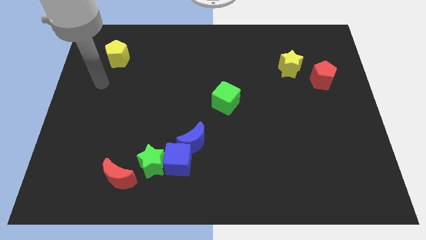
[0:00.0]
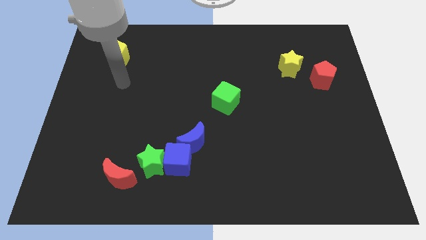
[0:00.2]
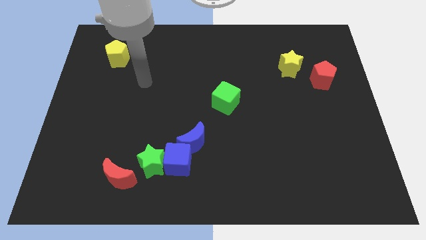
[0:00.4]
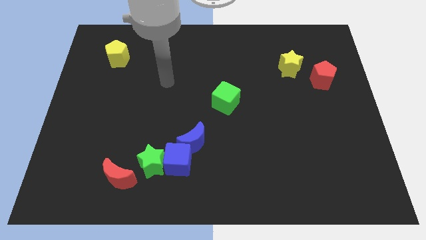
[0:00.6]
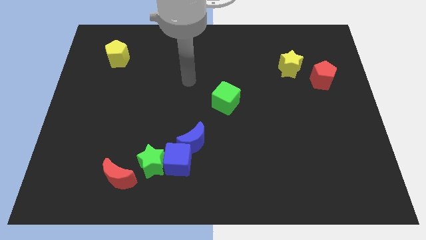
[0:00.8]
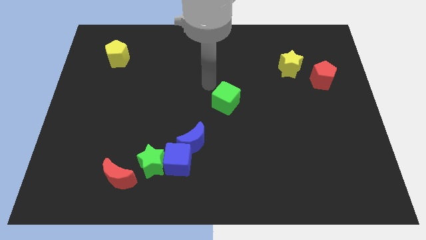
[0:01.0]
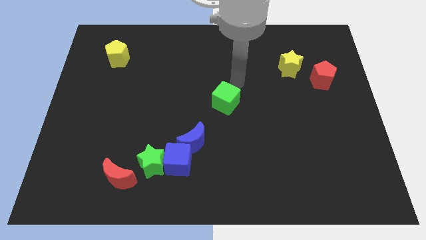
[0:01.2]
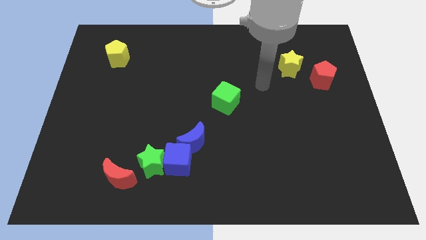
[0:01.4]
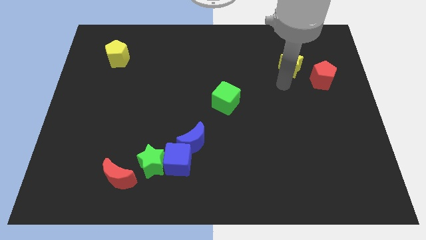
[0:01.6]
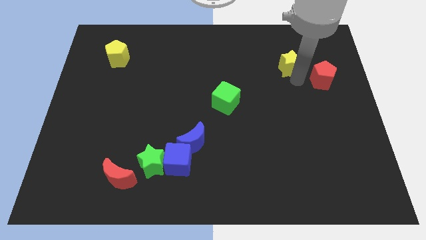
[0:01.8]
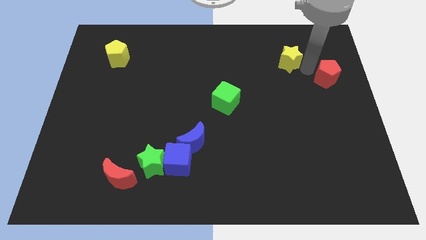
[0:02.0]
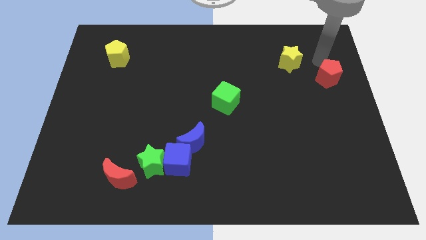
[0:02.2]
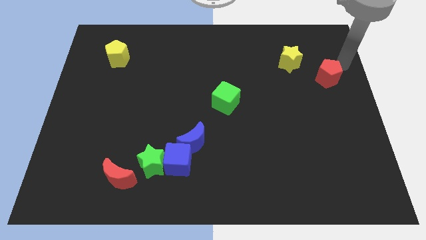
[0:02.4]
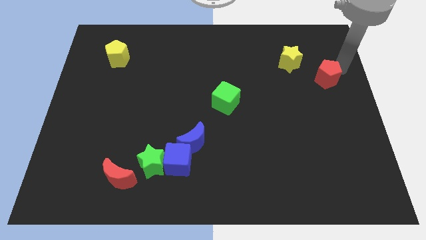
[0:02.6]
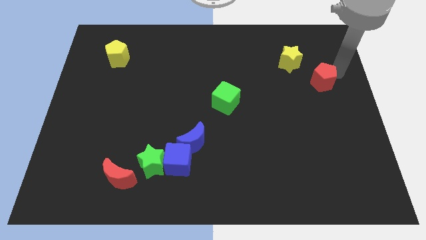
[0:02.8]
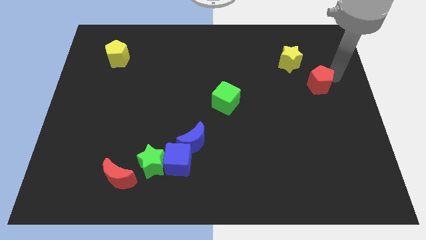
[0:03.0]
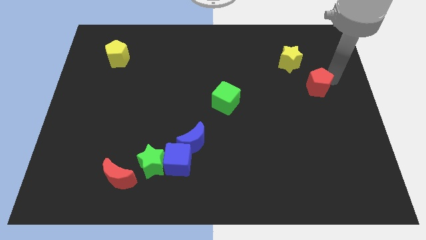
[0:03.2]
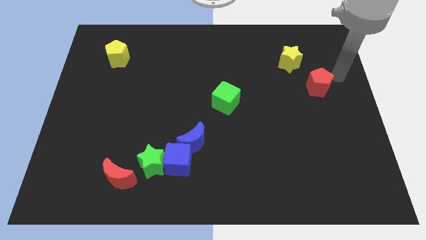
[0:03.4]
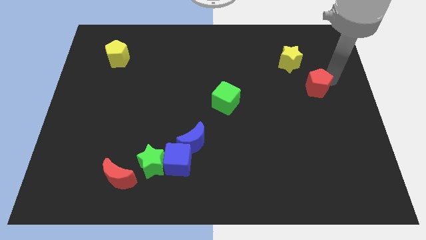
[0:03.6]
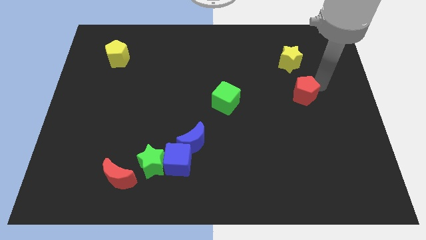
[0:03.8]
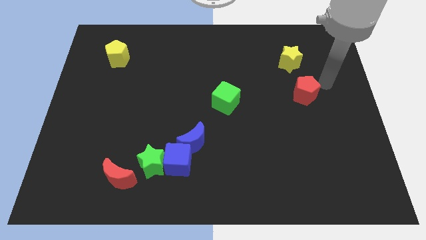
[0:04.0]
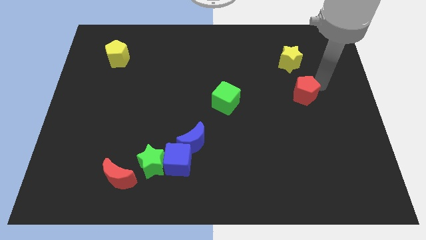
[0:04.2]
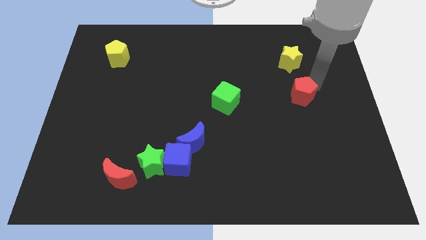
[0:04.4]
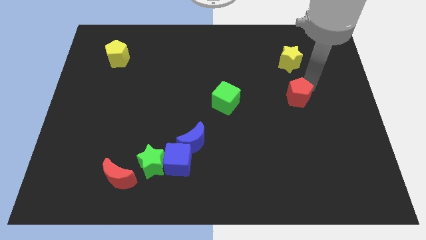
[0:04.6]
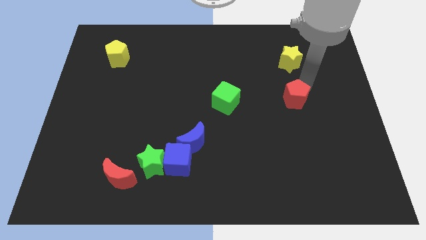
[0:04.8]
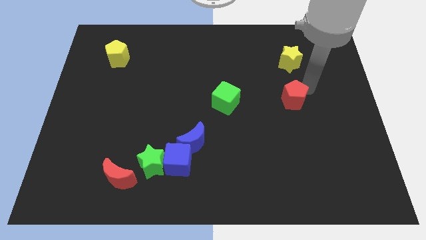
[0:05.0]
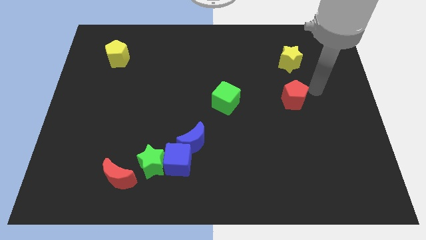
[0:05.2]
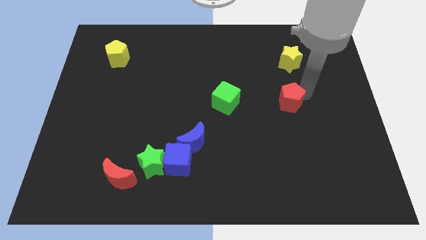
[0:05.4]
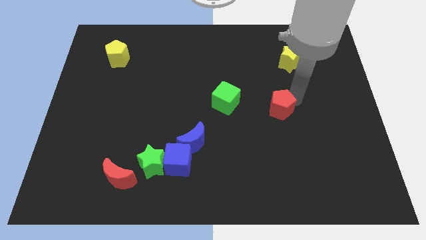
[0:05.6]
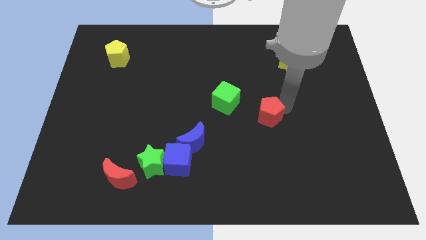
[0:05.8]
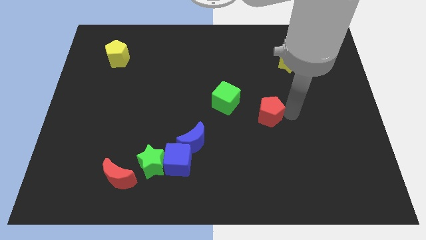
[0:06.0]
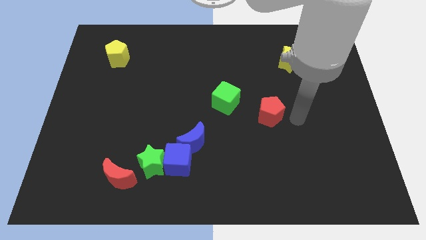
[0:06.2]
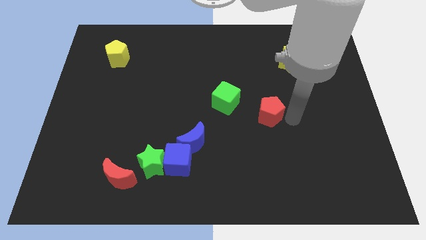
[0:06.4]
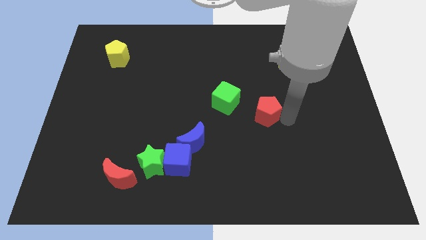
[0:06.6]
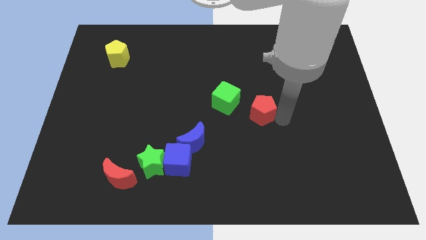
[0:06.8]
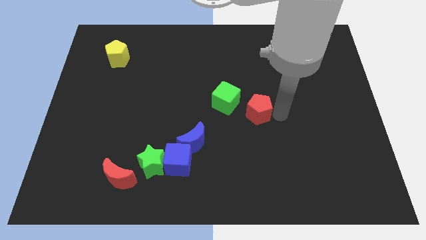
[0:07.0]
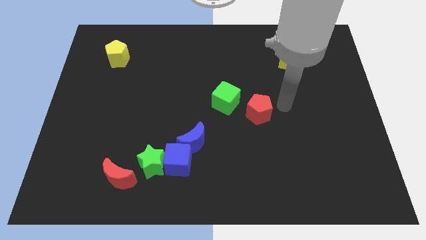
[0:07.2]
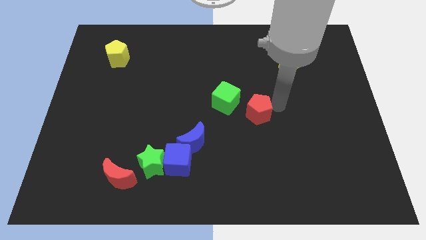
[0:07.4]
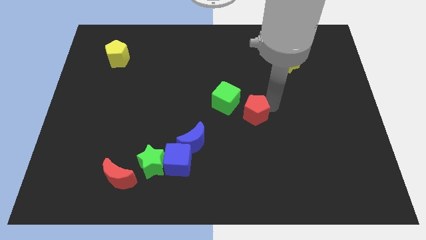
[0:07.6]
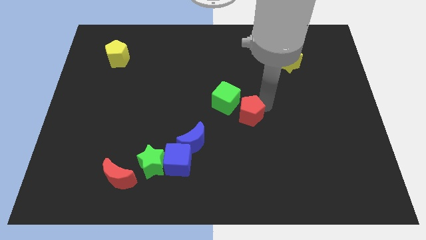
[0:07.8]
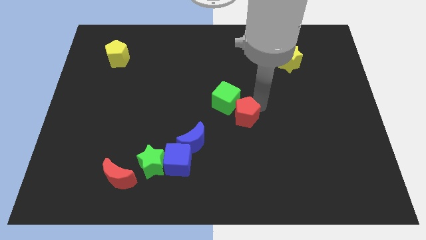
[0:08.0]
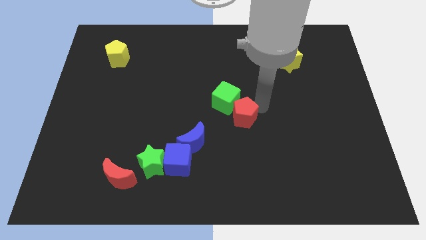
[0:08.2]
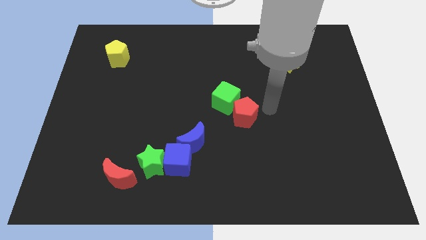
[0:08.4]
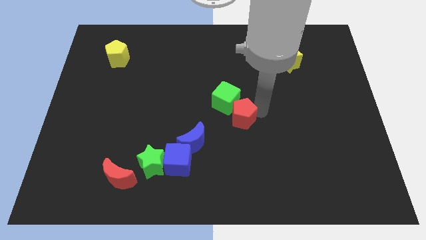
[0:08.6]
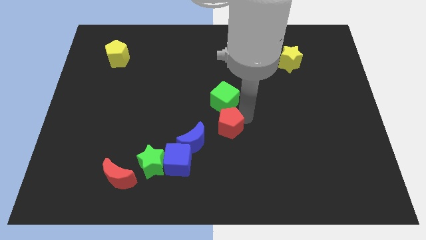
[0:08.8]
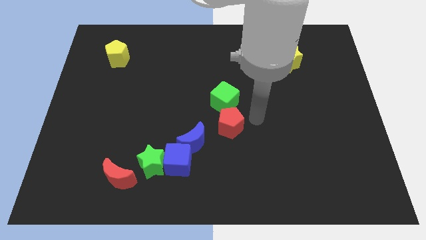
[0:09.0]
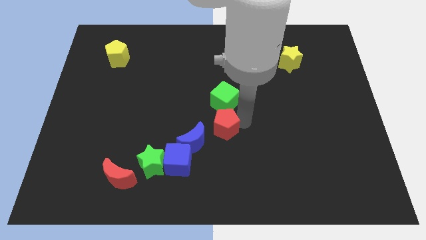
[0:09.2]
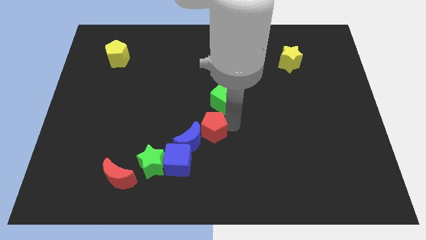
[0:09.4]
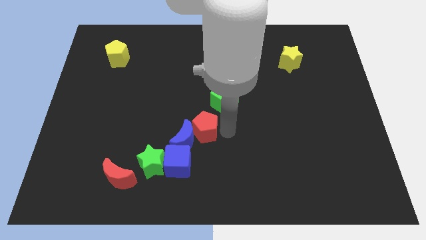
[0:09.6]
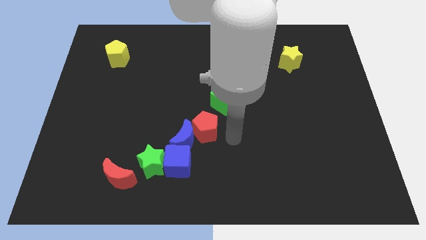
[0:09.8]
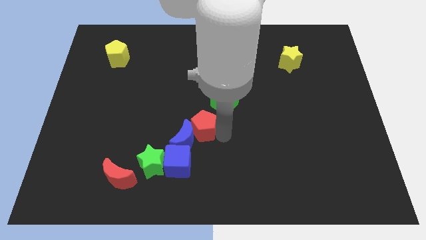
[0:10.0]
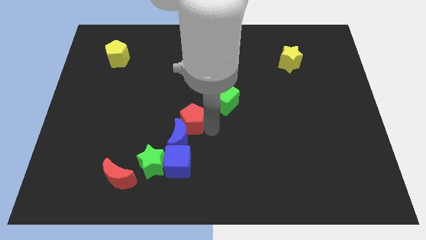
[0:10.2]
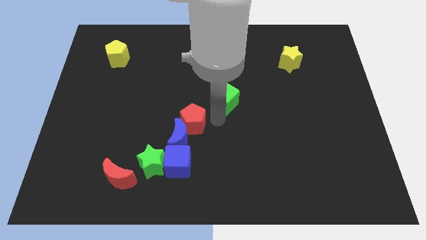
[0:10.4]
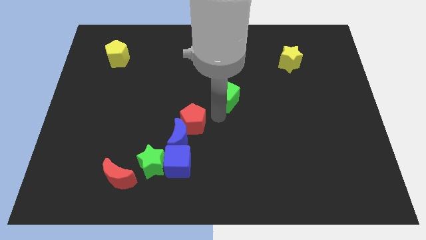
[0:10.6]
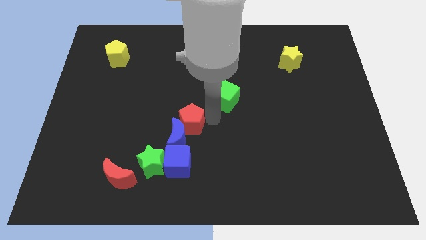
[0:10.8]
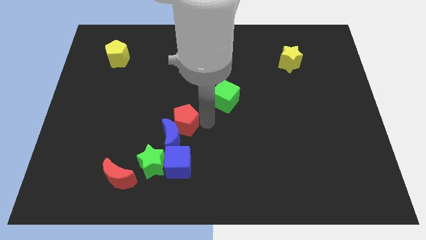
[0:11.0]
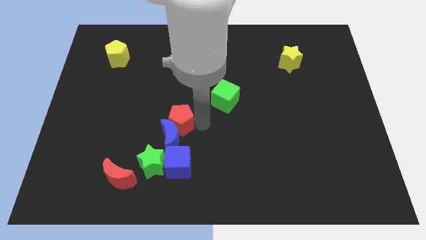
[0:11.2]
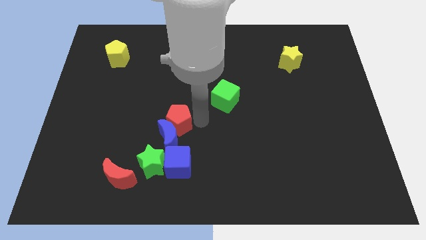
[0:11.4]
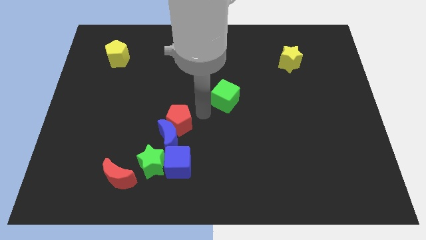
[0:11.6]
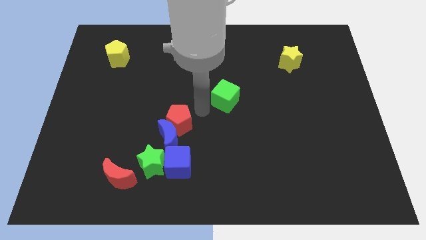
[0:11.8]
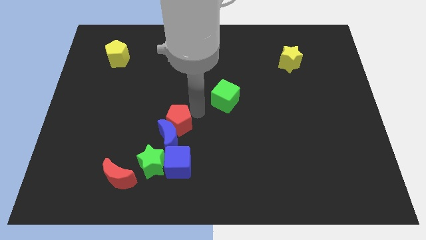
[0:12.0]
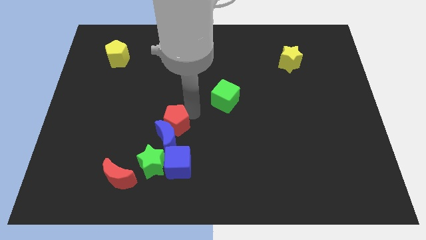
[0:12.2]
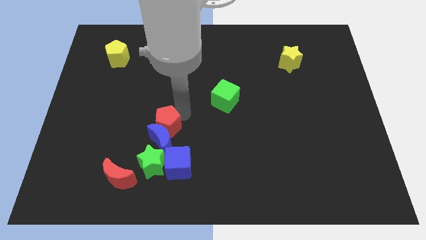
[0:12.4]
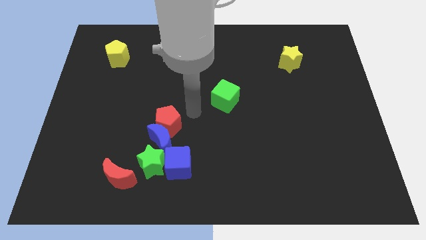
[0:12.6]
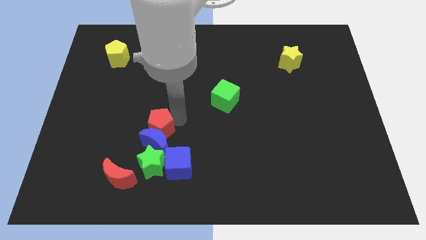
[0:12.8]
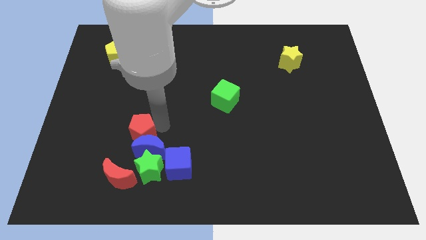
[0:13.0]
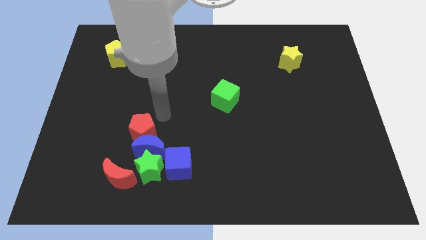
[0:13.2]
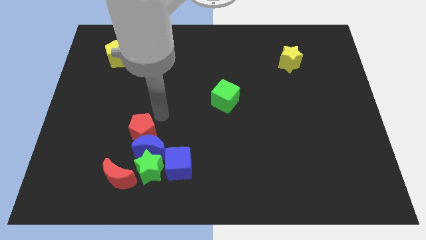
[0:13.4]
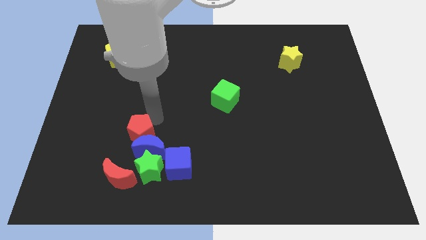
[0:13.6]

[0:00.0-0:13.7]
slide the red pentagon diagonally up and to the left of the green star
